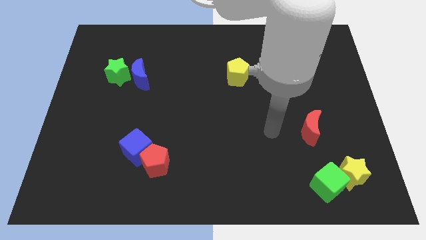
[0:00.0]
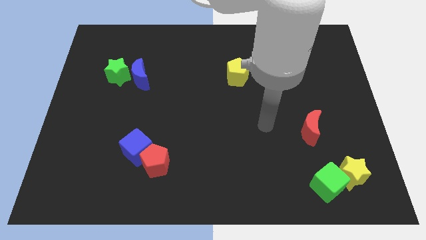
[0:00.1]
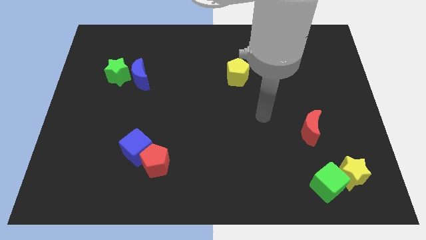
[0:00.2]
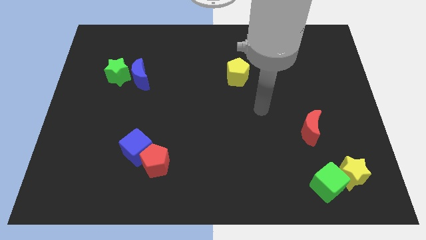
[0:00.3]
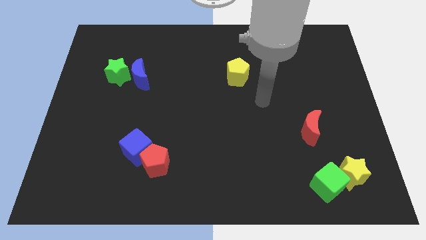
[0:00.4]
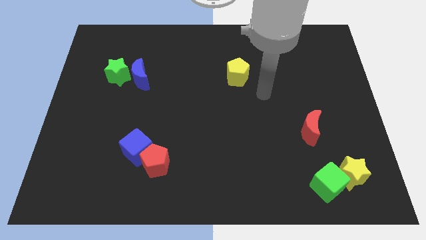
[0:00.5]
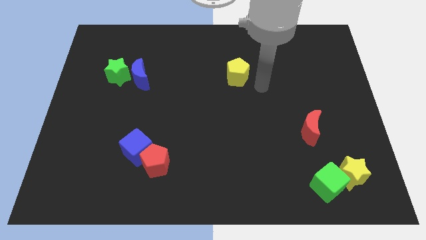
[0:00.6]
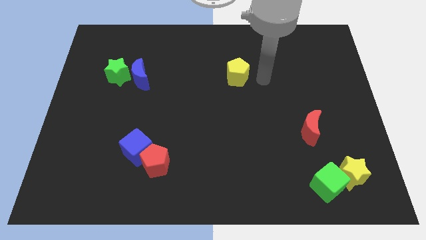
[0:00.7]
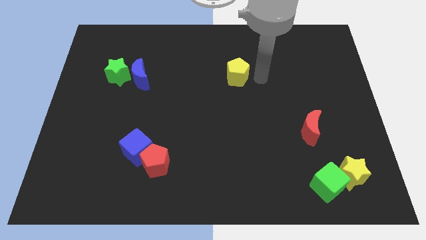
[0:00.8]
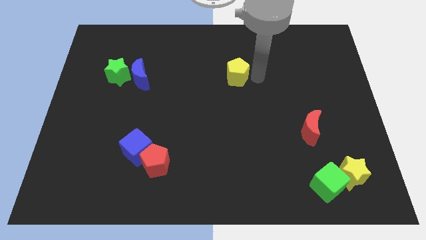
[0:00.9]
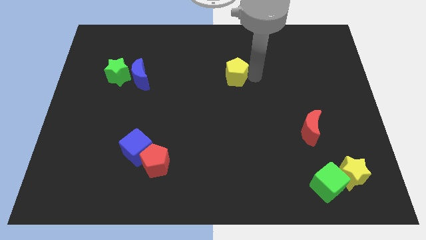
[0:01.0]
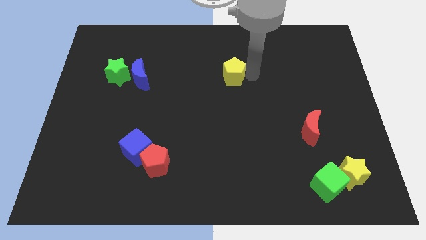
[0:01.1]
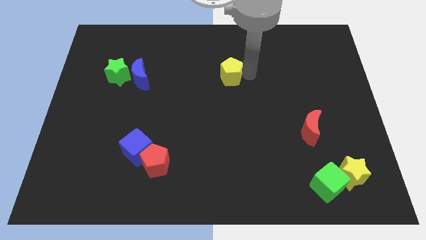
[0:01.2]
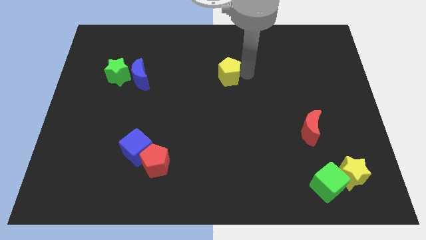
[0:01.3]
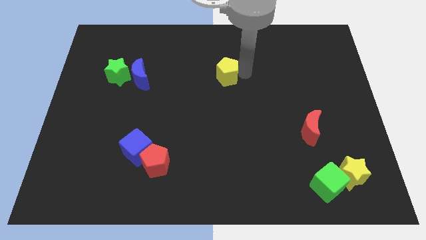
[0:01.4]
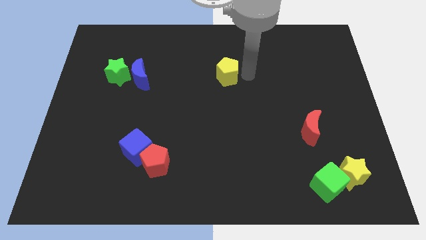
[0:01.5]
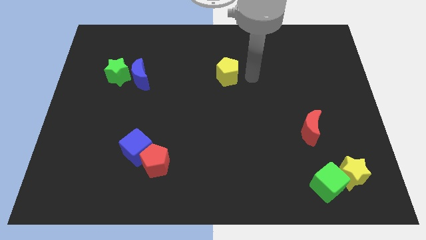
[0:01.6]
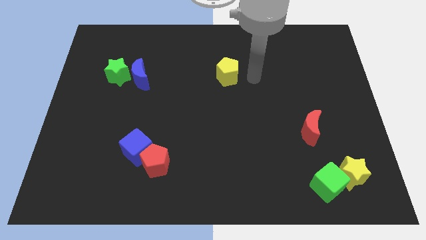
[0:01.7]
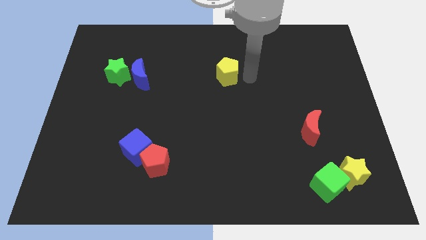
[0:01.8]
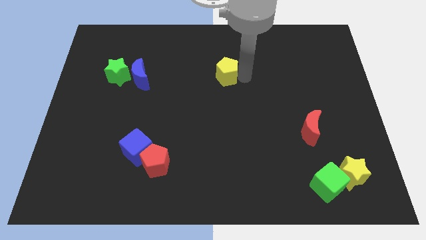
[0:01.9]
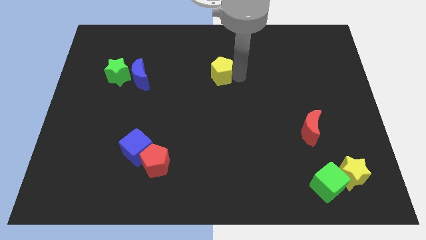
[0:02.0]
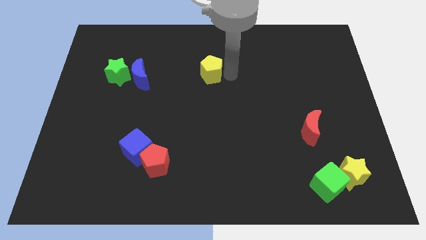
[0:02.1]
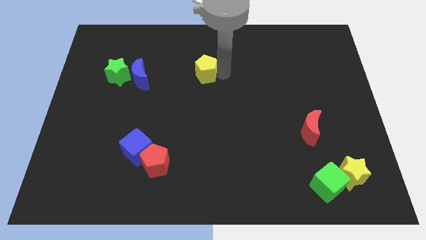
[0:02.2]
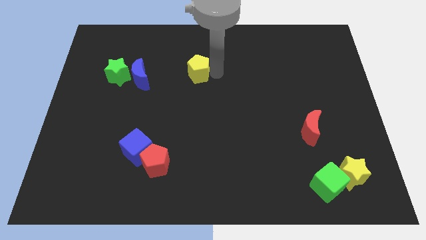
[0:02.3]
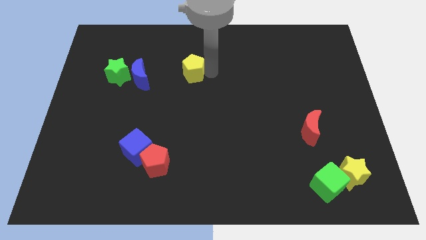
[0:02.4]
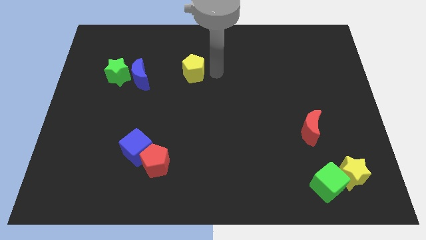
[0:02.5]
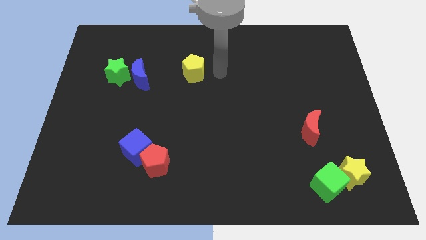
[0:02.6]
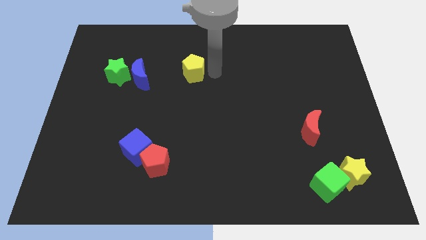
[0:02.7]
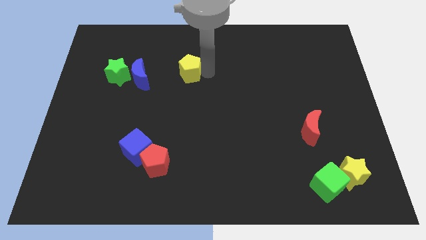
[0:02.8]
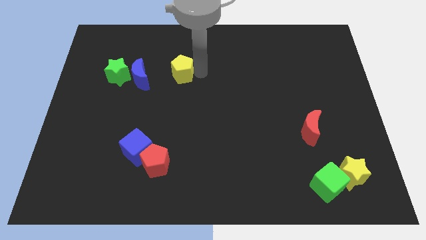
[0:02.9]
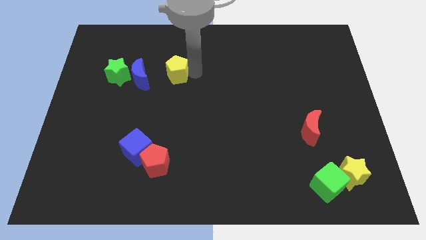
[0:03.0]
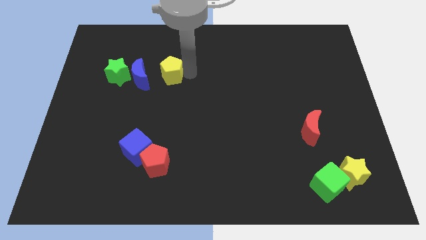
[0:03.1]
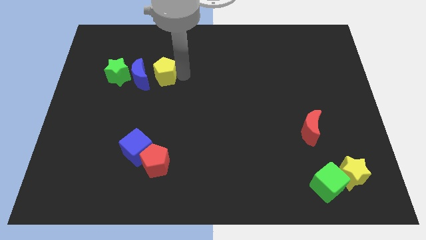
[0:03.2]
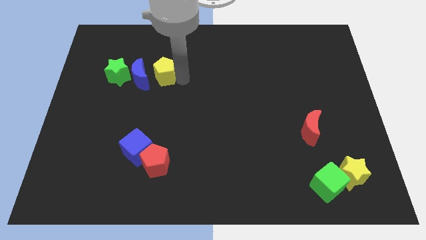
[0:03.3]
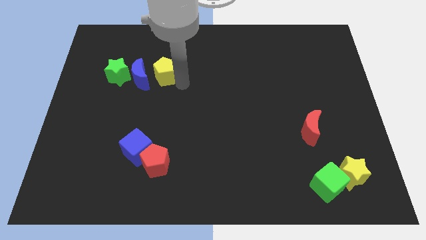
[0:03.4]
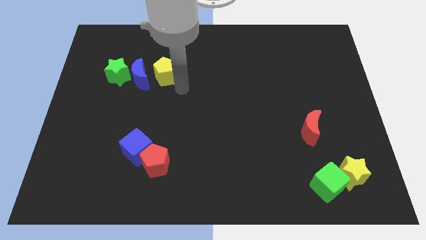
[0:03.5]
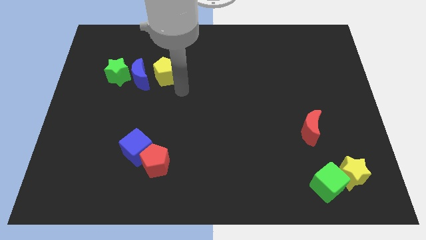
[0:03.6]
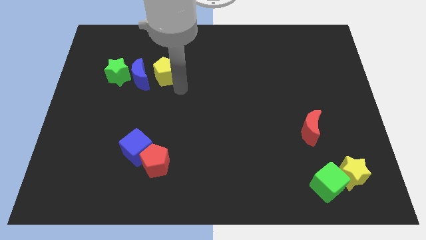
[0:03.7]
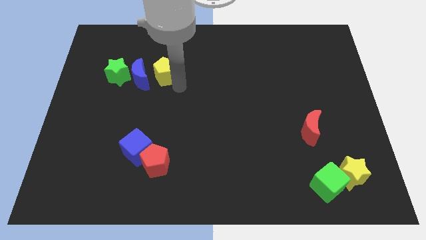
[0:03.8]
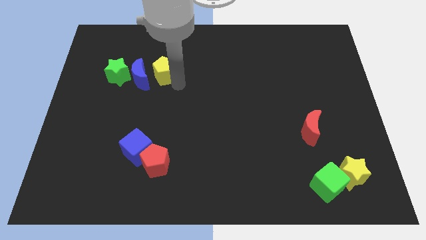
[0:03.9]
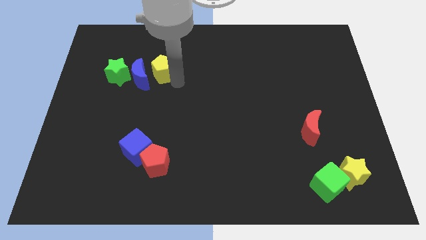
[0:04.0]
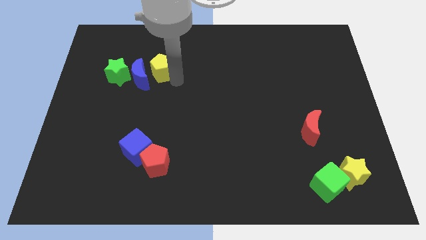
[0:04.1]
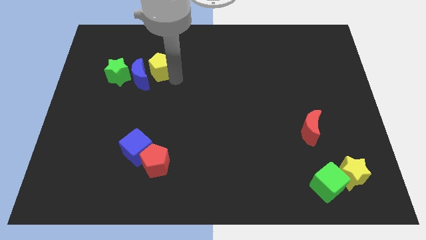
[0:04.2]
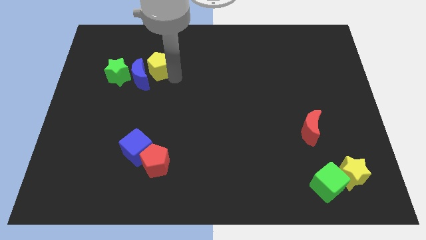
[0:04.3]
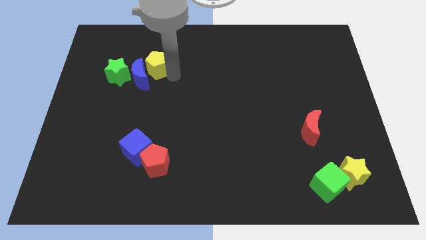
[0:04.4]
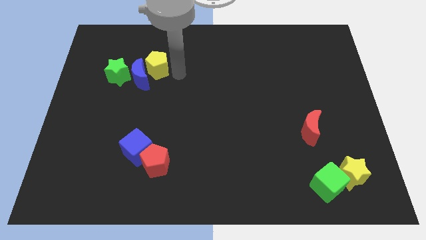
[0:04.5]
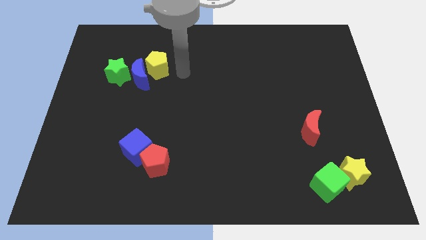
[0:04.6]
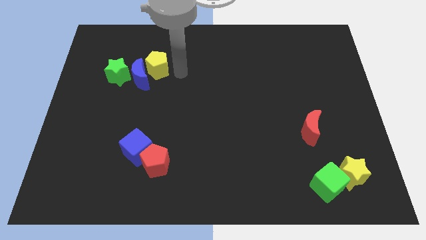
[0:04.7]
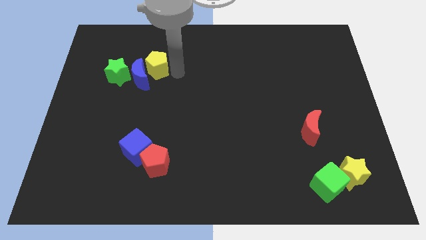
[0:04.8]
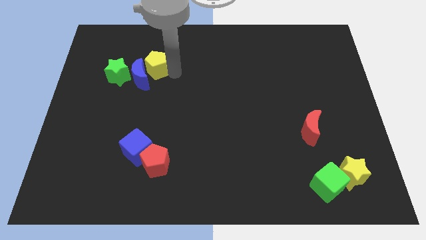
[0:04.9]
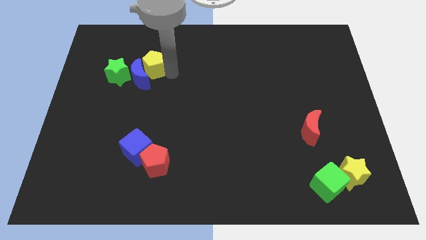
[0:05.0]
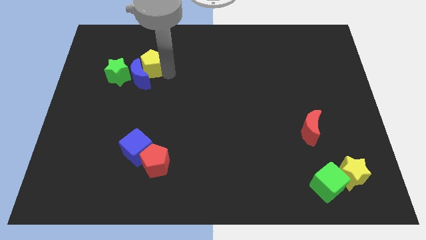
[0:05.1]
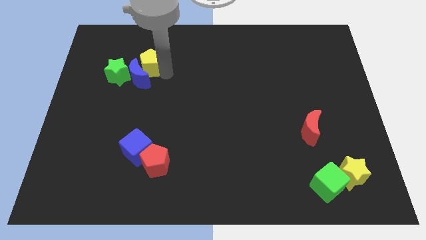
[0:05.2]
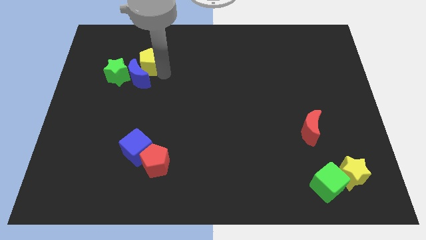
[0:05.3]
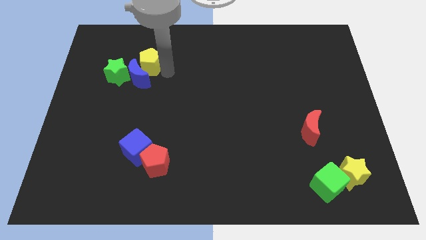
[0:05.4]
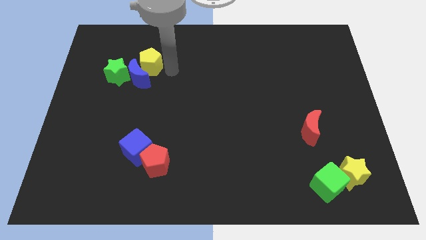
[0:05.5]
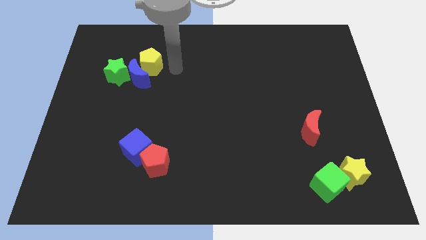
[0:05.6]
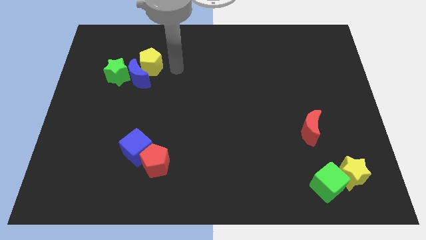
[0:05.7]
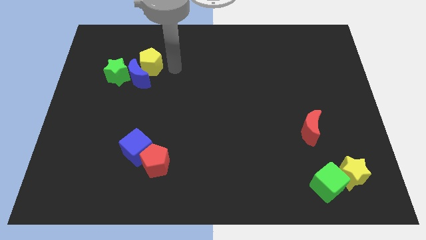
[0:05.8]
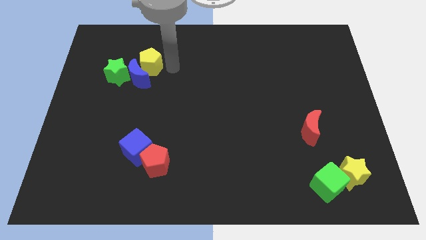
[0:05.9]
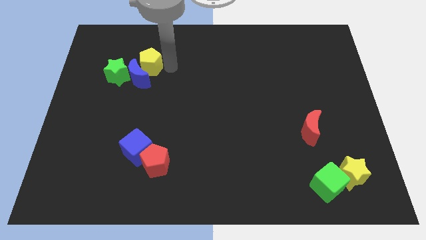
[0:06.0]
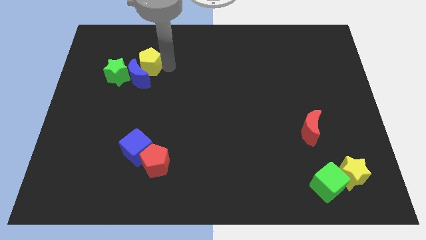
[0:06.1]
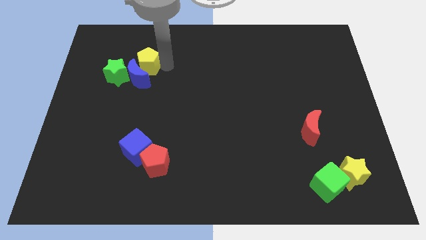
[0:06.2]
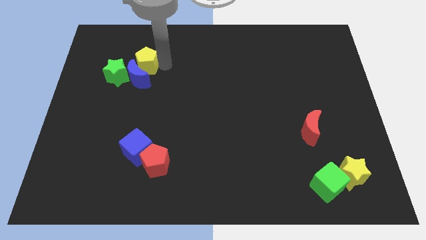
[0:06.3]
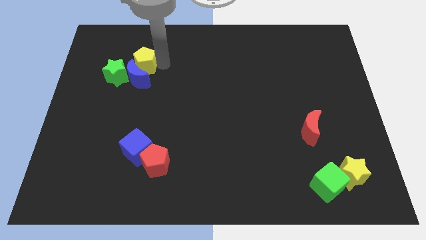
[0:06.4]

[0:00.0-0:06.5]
put the yellow pentagon to the top left side of the blue moon
